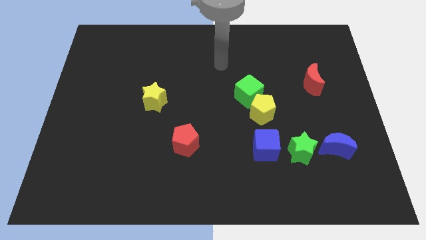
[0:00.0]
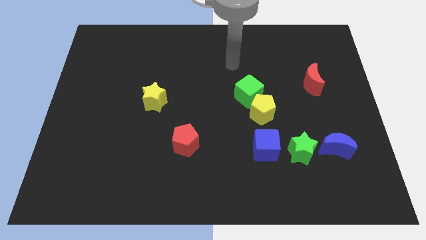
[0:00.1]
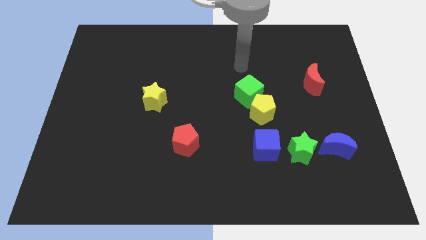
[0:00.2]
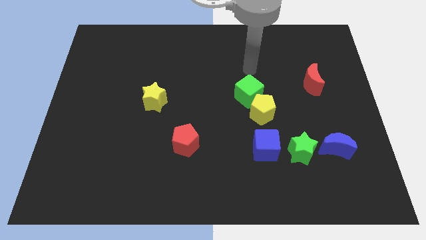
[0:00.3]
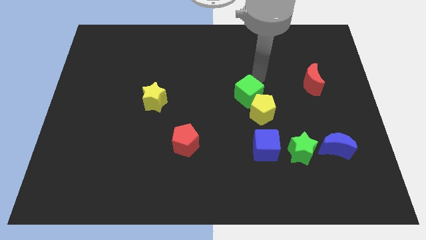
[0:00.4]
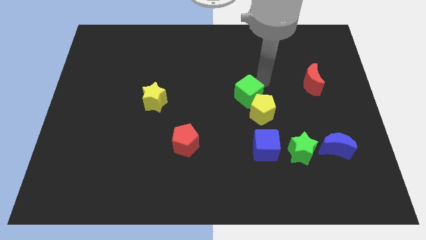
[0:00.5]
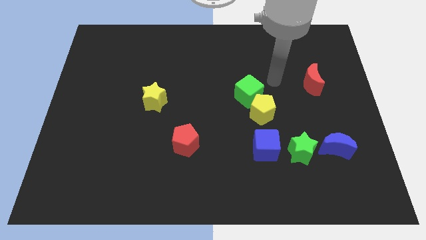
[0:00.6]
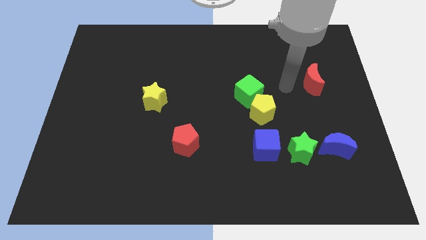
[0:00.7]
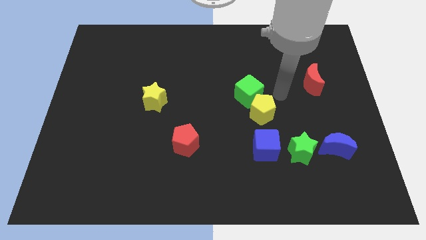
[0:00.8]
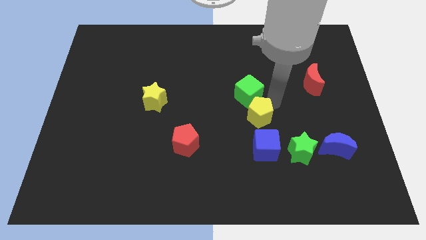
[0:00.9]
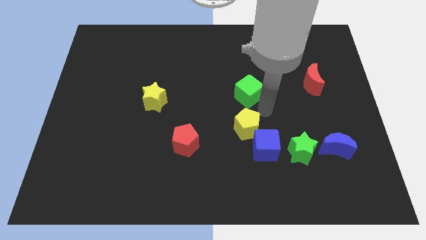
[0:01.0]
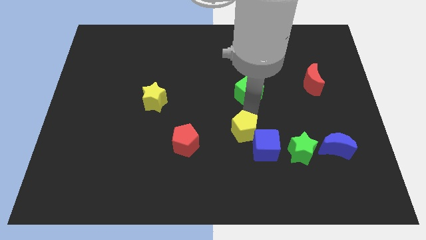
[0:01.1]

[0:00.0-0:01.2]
separate the green cube from the yellow pentagon

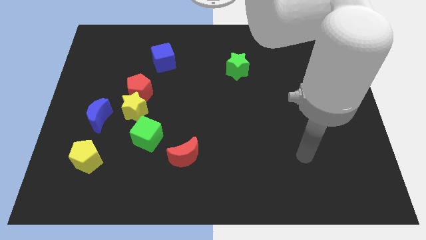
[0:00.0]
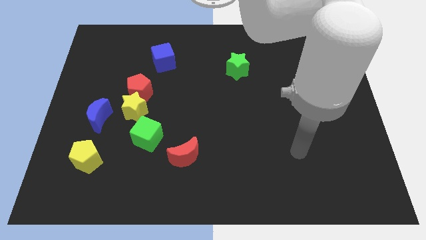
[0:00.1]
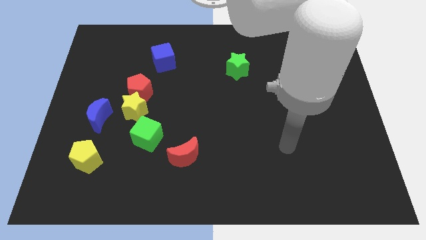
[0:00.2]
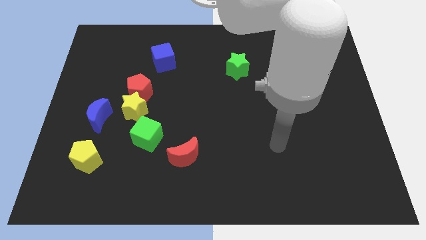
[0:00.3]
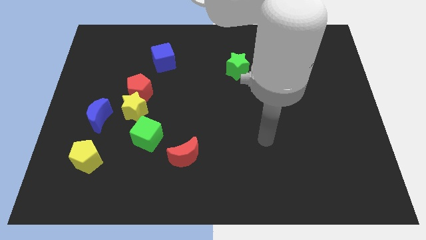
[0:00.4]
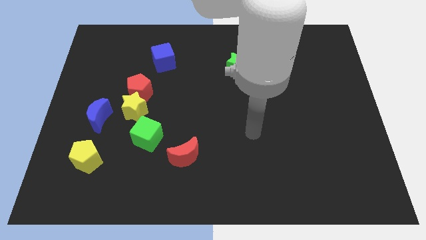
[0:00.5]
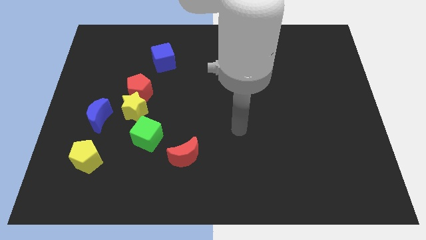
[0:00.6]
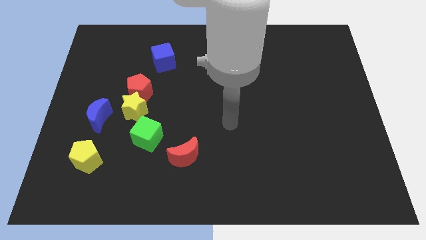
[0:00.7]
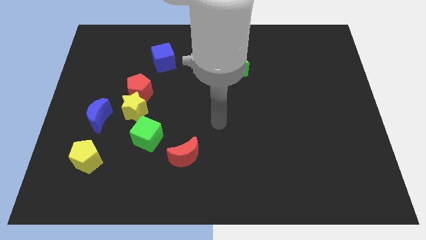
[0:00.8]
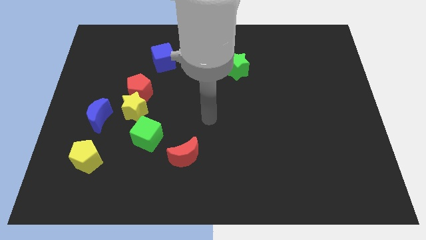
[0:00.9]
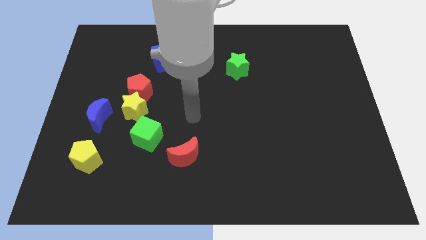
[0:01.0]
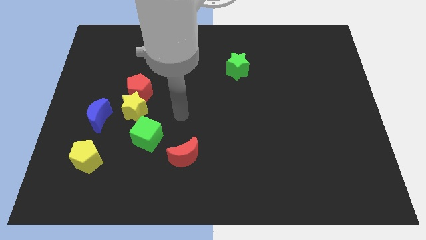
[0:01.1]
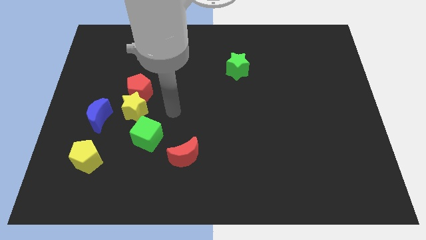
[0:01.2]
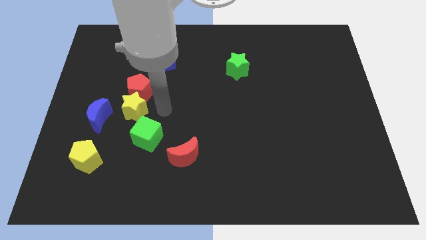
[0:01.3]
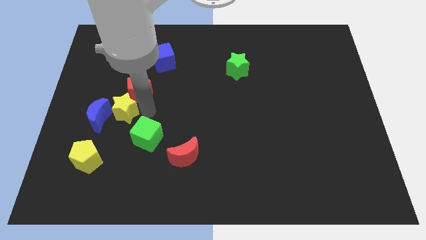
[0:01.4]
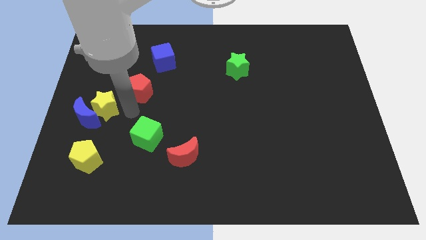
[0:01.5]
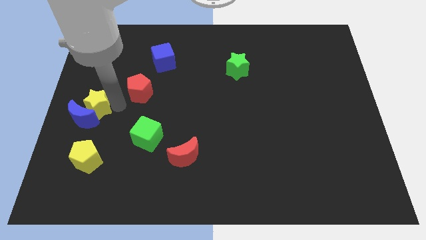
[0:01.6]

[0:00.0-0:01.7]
move the red pentagon away from the yellow star

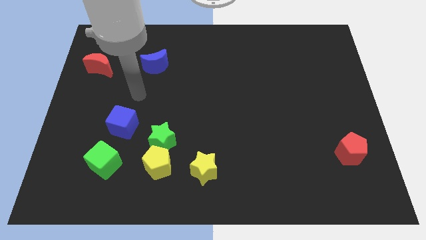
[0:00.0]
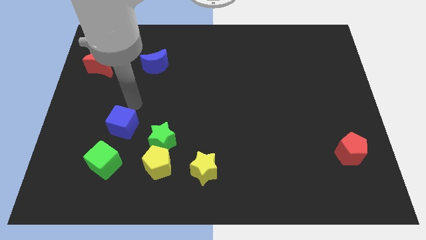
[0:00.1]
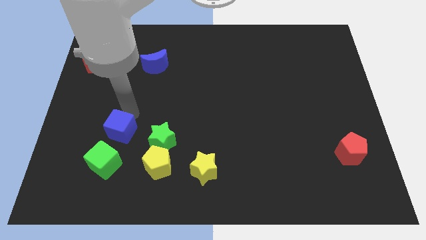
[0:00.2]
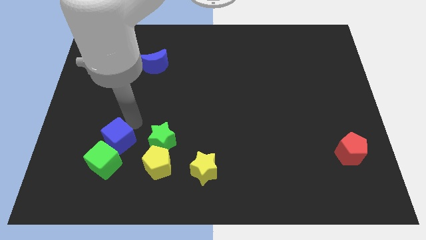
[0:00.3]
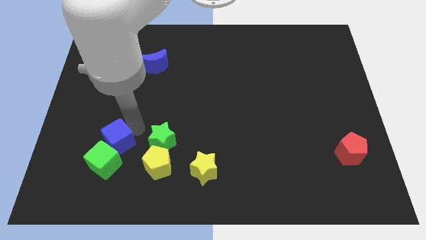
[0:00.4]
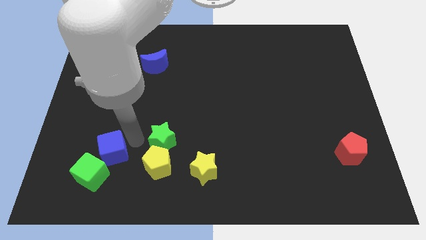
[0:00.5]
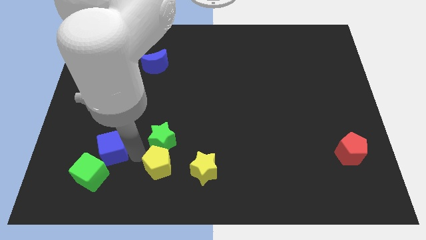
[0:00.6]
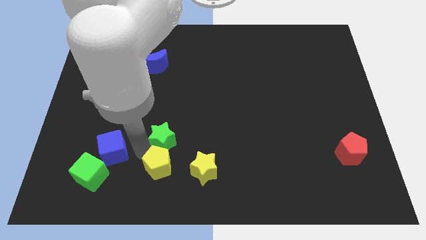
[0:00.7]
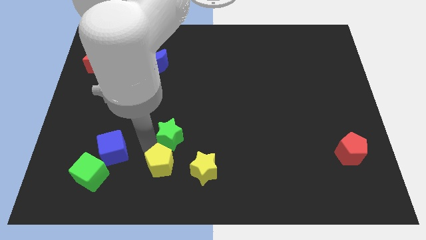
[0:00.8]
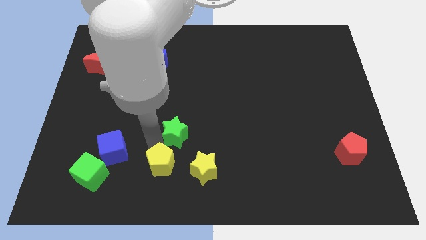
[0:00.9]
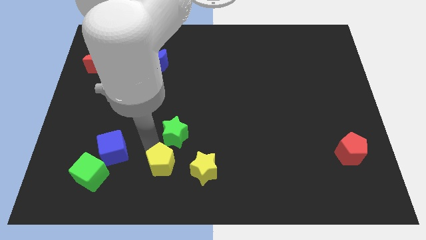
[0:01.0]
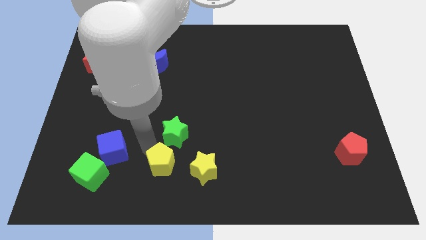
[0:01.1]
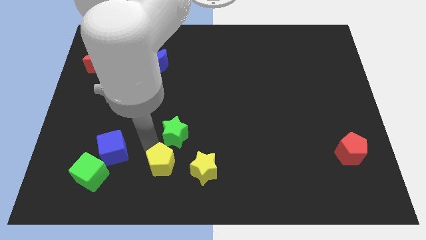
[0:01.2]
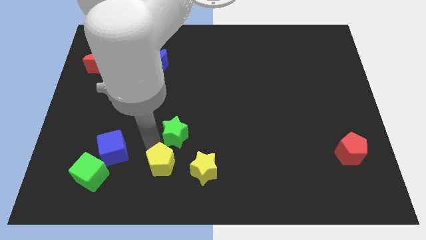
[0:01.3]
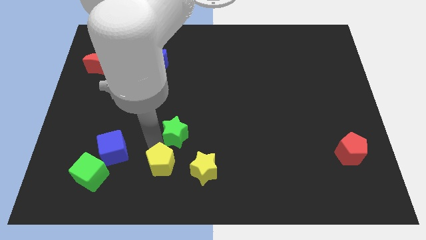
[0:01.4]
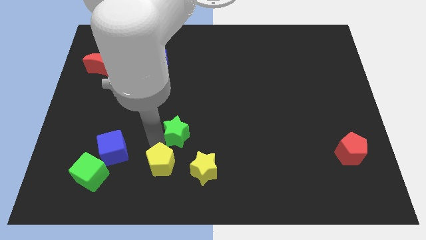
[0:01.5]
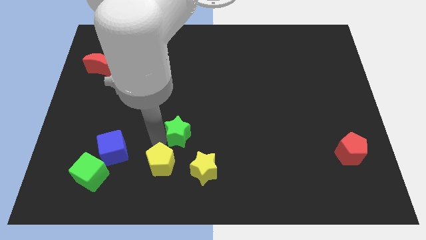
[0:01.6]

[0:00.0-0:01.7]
separate the green star from the yellow pentagon and blue cube

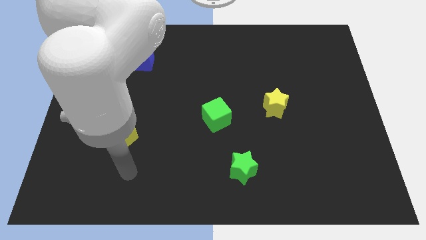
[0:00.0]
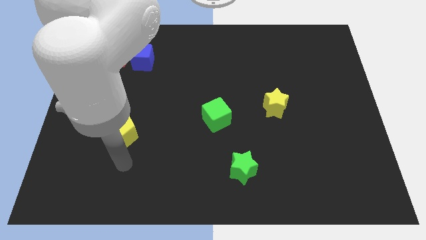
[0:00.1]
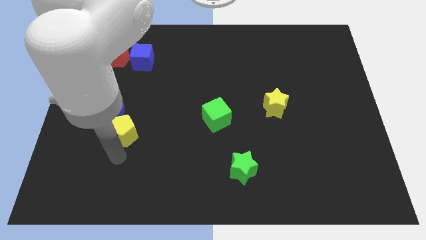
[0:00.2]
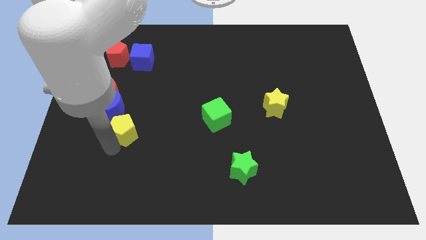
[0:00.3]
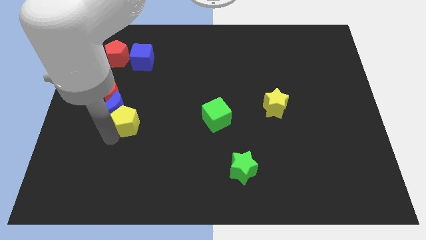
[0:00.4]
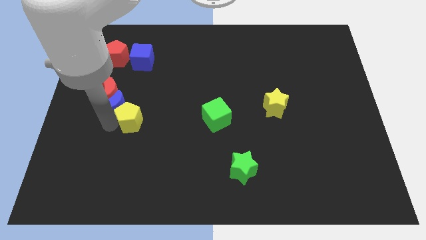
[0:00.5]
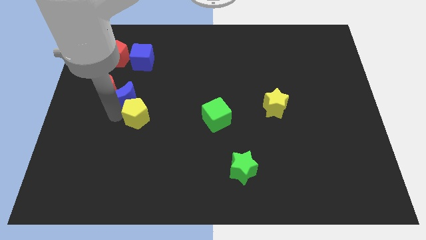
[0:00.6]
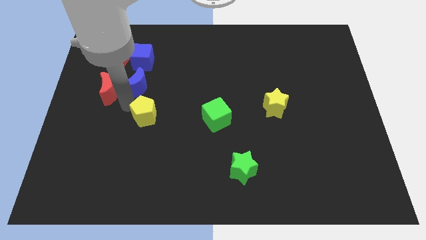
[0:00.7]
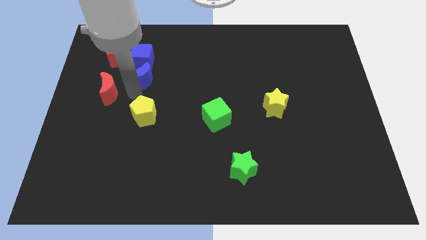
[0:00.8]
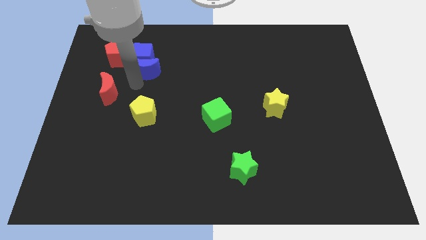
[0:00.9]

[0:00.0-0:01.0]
pull the red moon apart from the blue moon

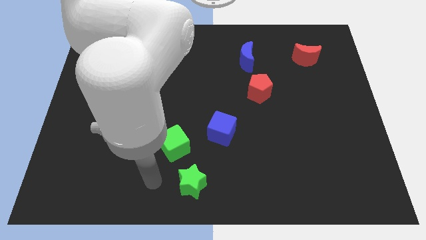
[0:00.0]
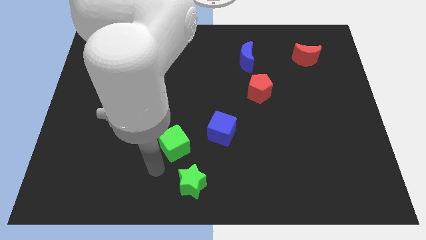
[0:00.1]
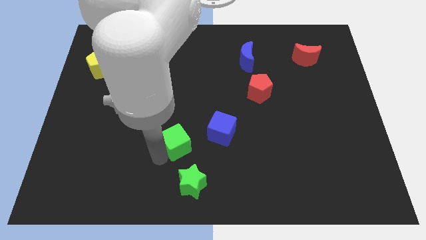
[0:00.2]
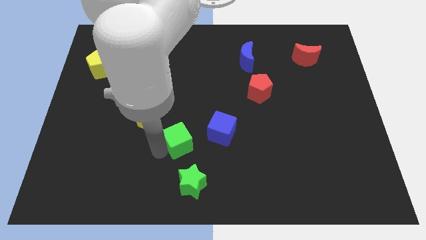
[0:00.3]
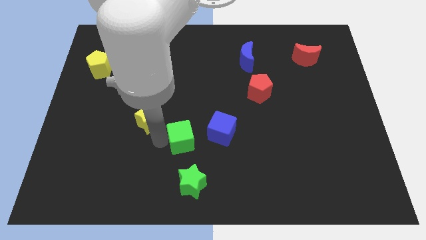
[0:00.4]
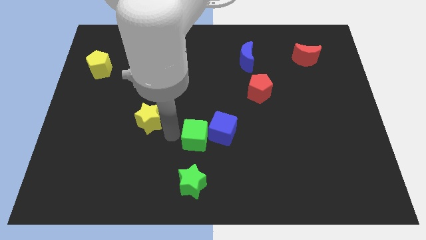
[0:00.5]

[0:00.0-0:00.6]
pull the yellow star apart from the green cube

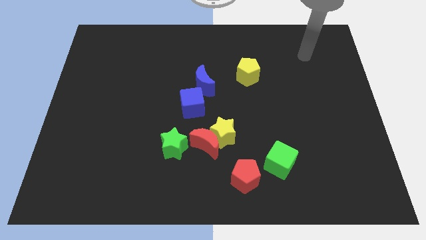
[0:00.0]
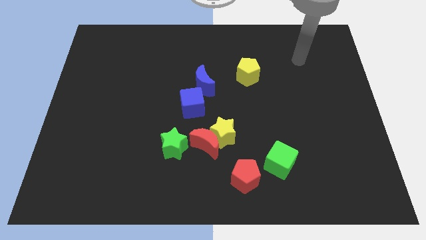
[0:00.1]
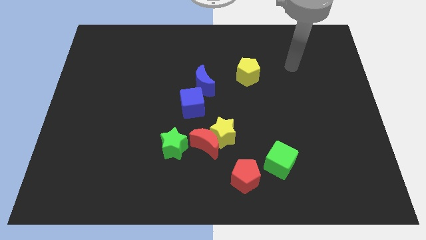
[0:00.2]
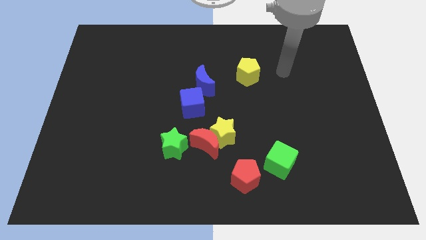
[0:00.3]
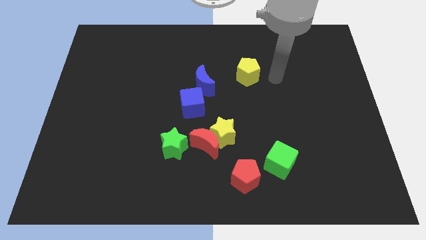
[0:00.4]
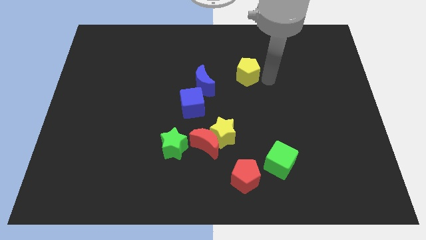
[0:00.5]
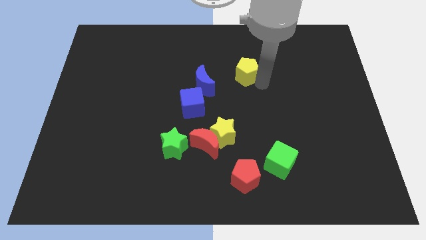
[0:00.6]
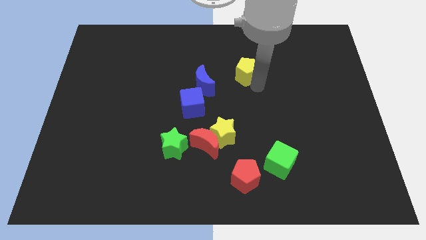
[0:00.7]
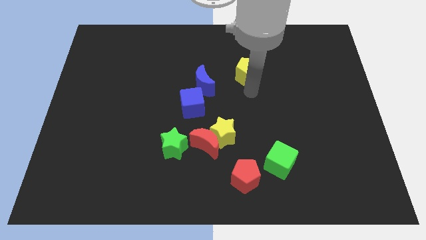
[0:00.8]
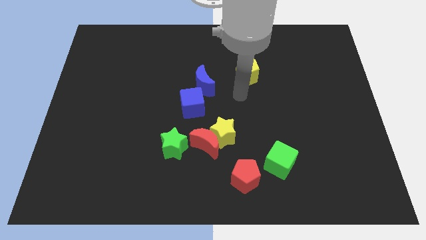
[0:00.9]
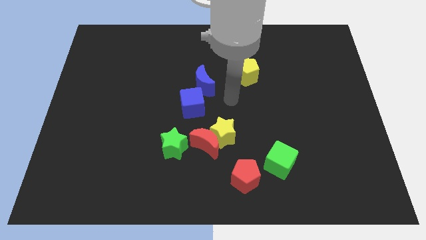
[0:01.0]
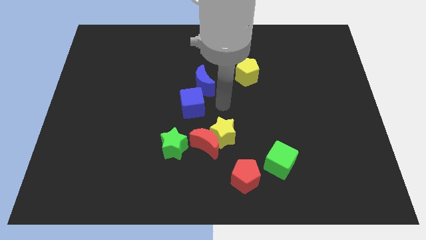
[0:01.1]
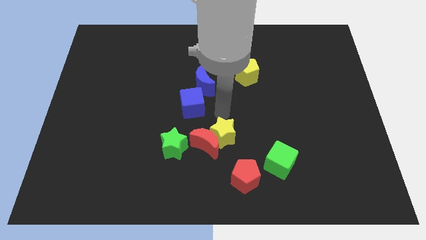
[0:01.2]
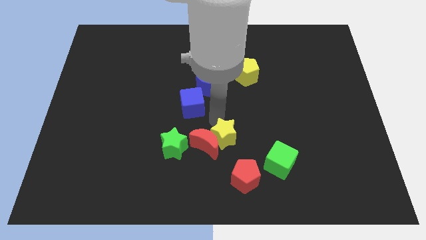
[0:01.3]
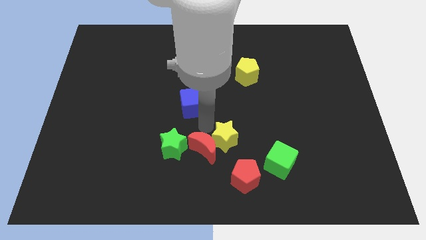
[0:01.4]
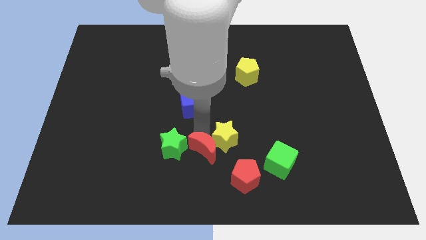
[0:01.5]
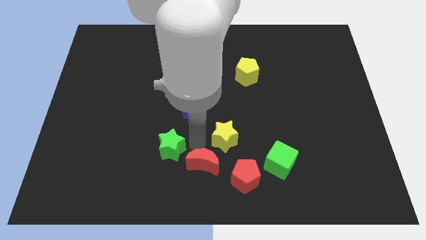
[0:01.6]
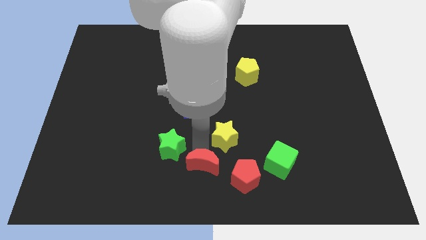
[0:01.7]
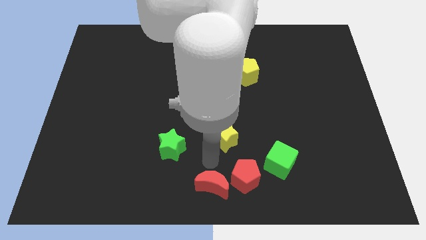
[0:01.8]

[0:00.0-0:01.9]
move the yellow star away from the red moon

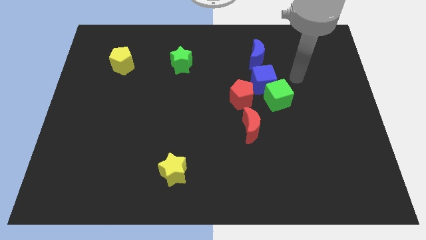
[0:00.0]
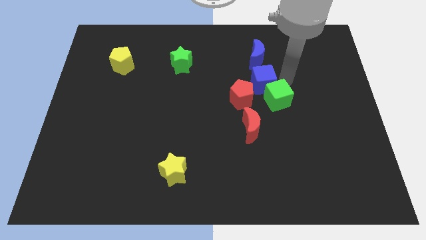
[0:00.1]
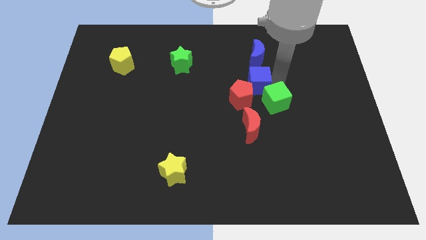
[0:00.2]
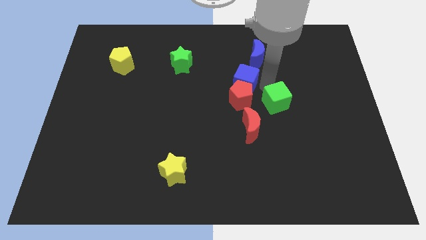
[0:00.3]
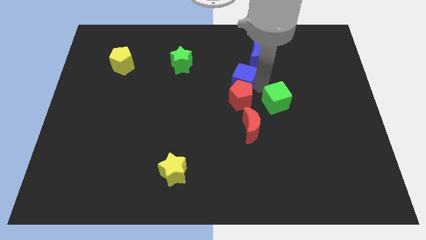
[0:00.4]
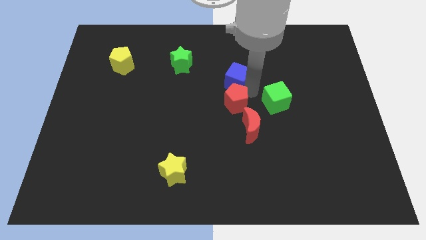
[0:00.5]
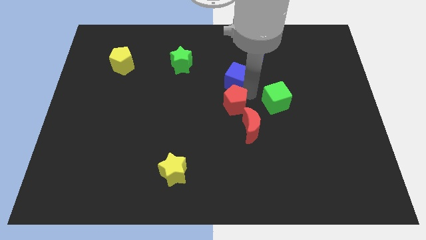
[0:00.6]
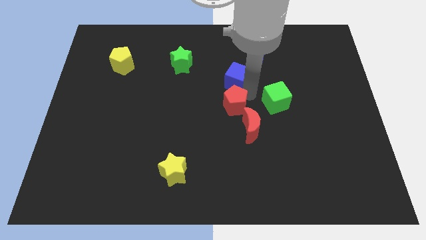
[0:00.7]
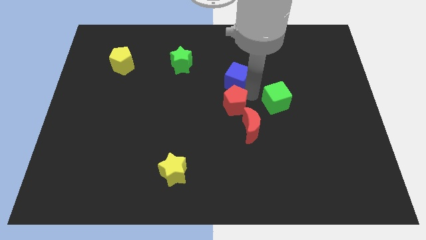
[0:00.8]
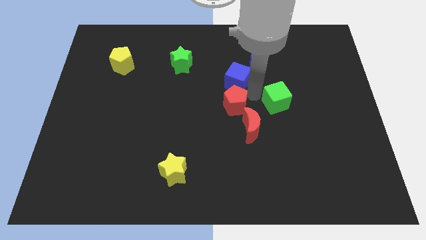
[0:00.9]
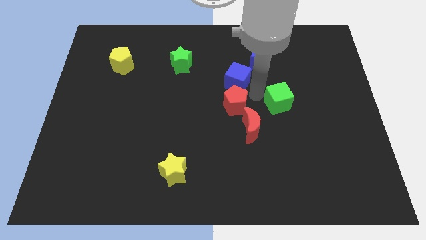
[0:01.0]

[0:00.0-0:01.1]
separate the green cube from the blue cube and red pentagon
